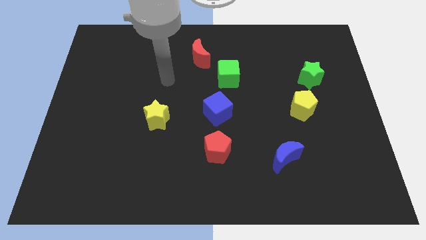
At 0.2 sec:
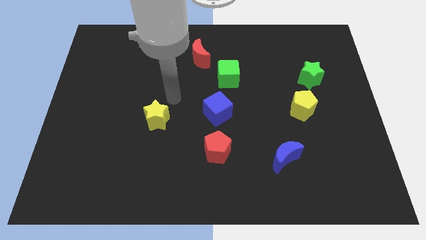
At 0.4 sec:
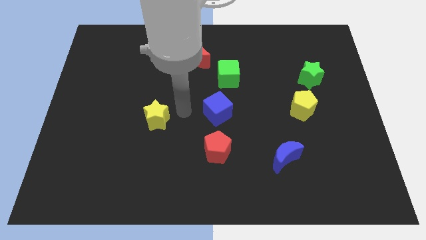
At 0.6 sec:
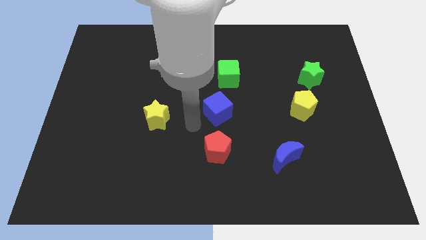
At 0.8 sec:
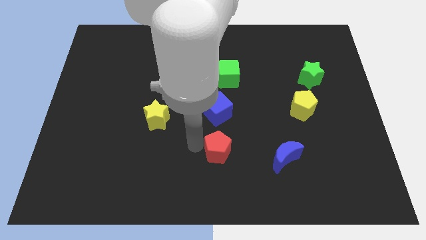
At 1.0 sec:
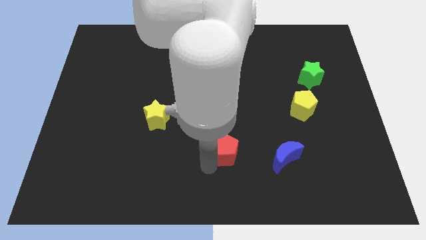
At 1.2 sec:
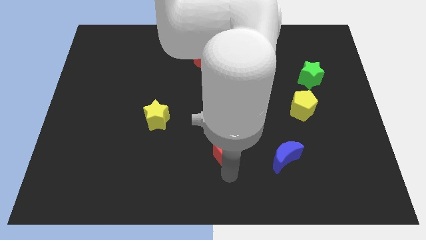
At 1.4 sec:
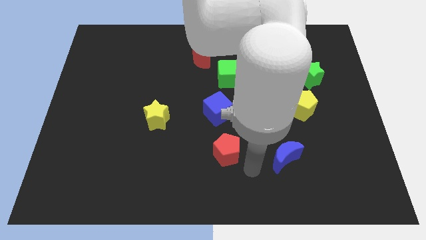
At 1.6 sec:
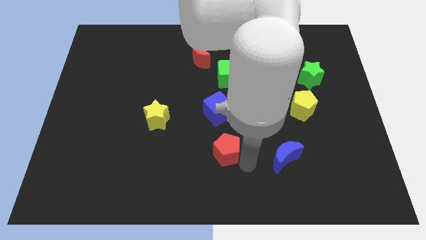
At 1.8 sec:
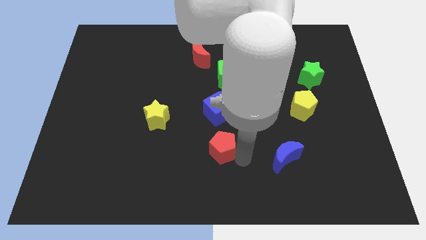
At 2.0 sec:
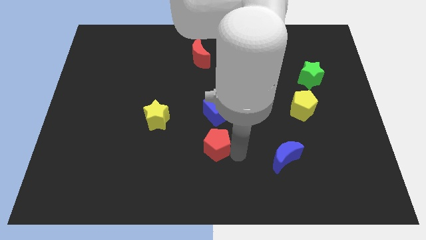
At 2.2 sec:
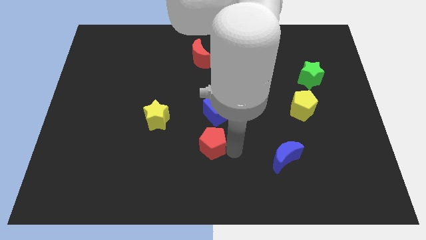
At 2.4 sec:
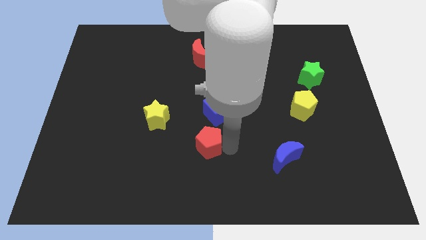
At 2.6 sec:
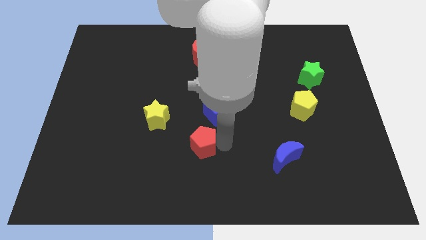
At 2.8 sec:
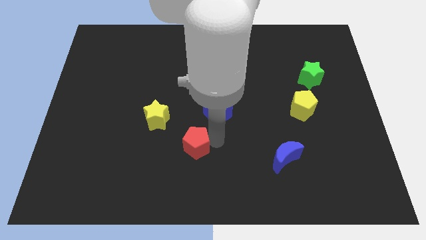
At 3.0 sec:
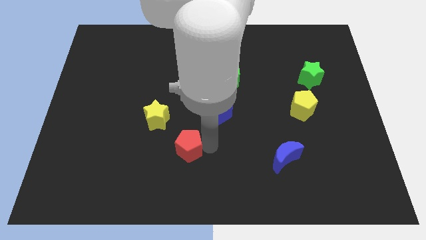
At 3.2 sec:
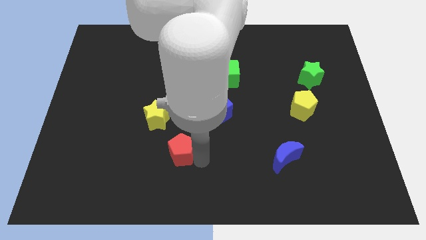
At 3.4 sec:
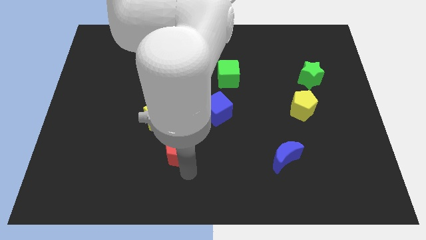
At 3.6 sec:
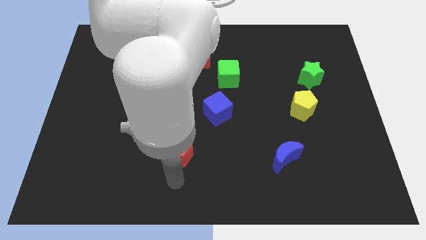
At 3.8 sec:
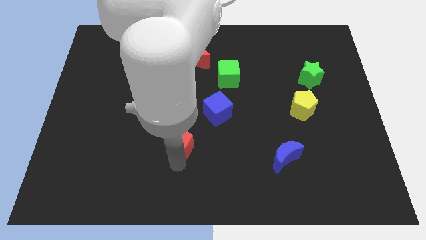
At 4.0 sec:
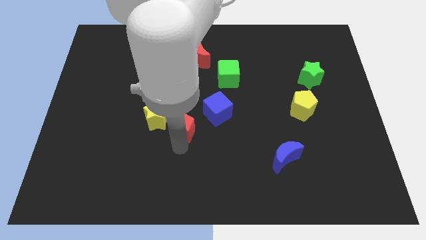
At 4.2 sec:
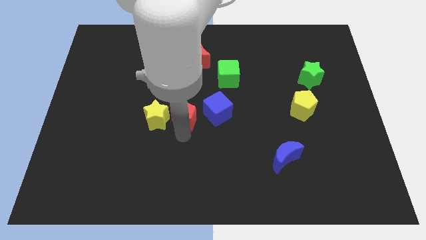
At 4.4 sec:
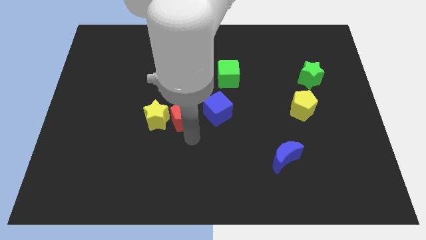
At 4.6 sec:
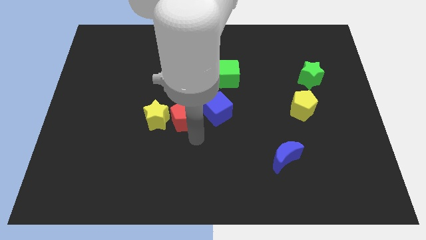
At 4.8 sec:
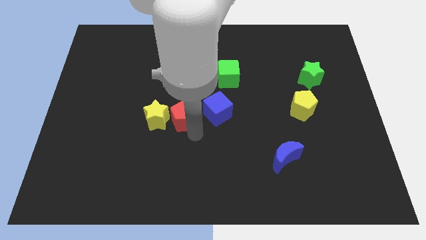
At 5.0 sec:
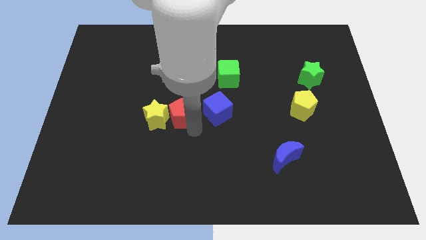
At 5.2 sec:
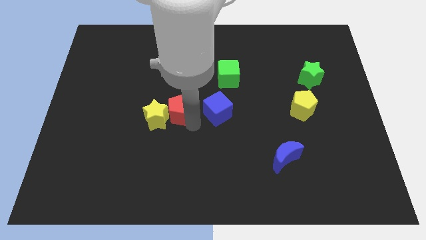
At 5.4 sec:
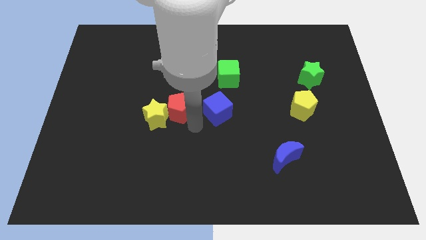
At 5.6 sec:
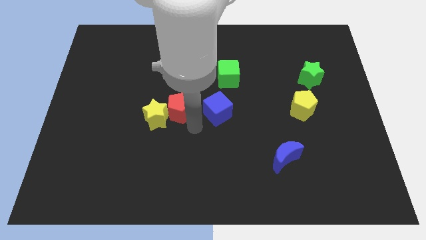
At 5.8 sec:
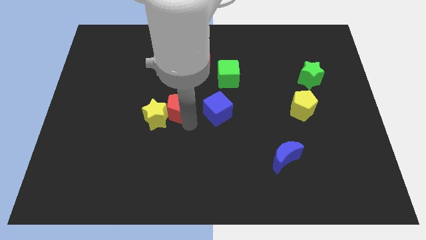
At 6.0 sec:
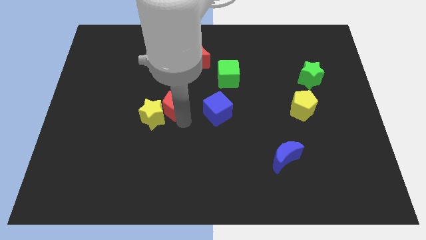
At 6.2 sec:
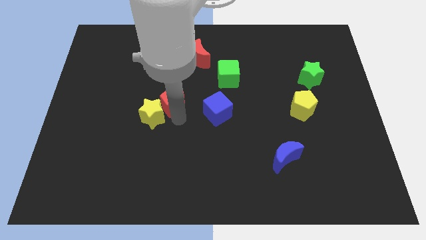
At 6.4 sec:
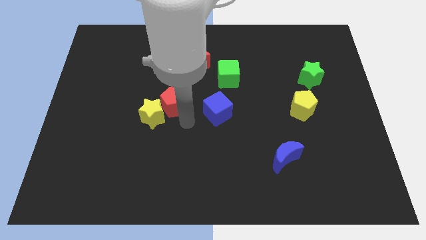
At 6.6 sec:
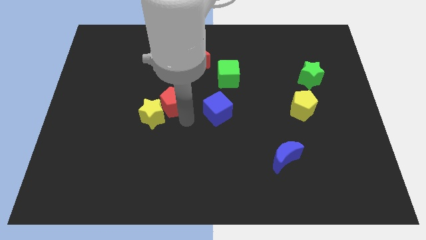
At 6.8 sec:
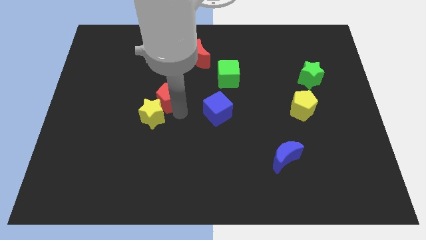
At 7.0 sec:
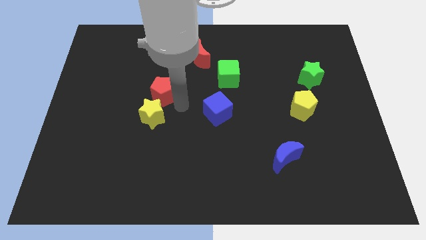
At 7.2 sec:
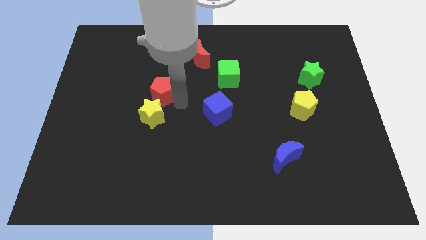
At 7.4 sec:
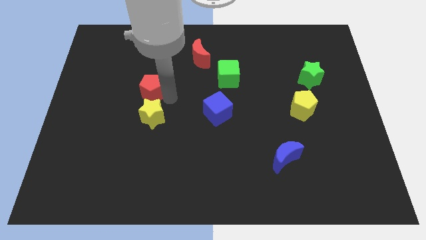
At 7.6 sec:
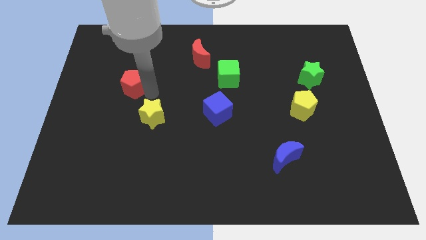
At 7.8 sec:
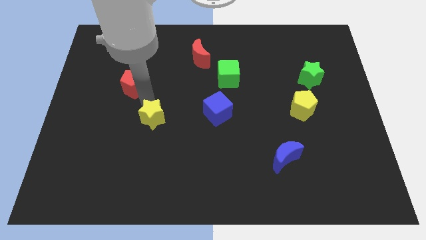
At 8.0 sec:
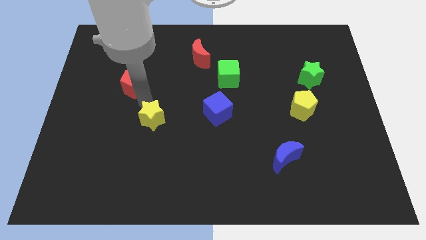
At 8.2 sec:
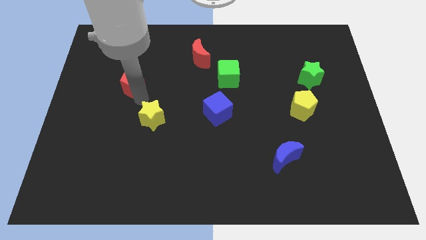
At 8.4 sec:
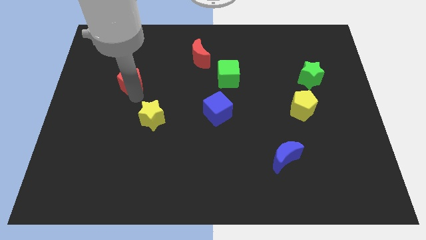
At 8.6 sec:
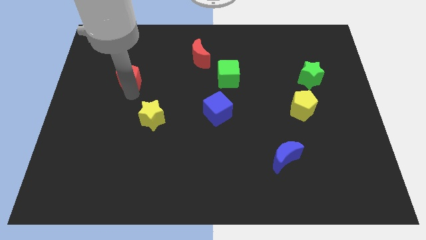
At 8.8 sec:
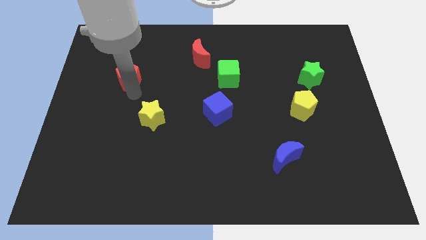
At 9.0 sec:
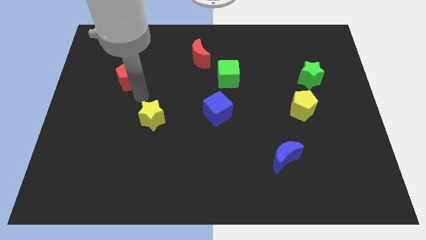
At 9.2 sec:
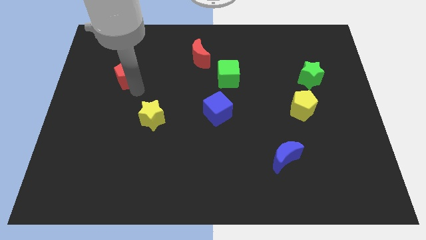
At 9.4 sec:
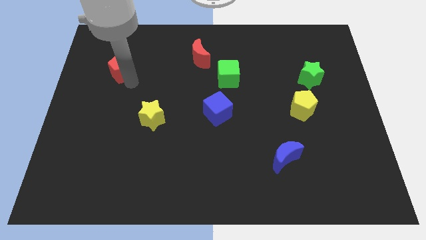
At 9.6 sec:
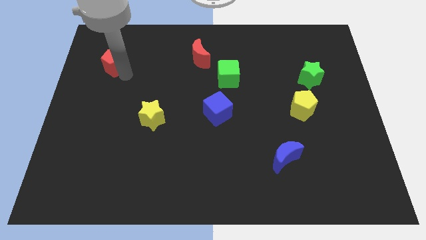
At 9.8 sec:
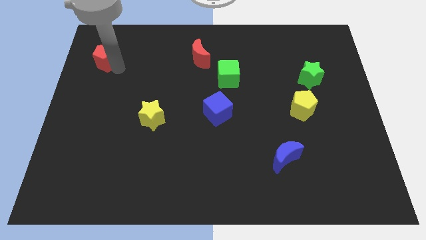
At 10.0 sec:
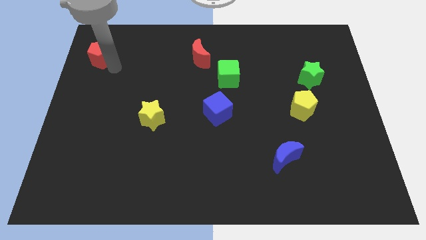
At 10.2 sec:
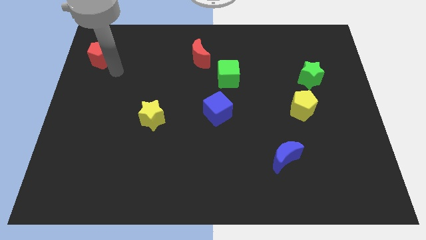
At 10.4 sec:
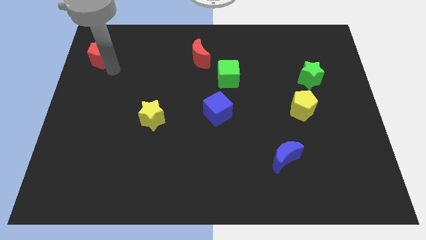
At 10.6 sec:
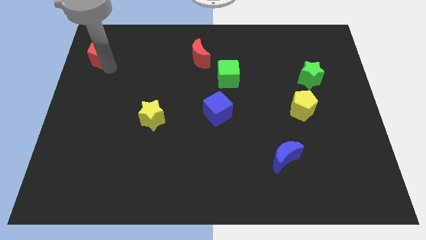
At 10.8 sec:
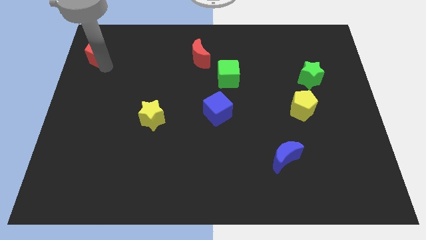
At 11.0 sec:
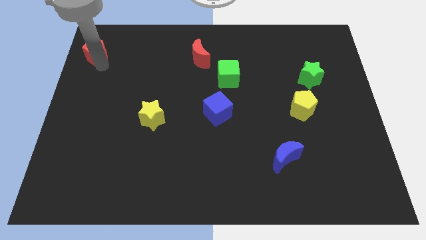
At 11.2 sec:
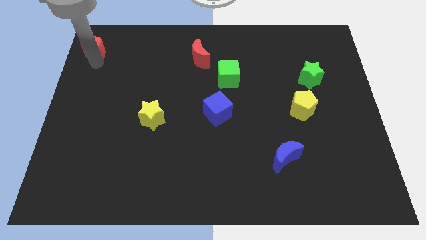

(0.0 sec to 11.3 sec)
put the red pentagon to the top left of the board

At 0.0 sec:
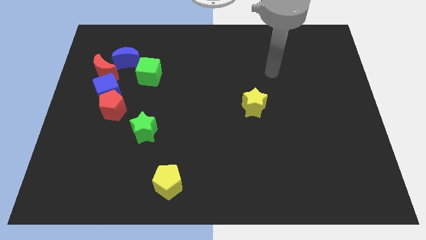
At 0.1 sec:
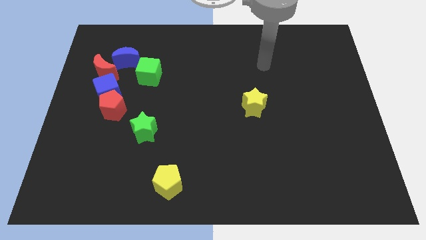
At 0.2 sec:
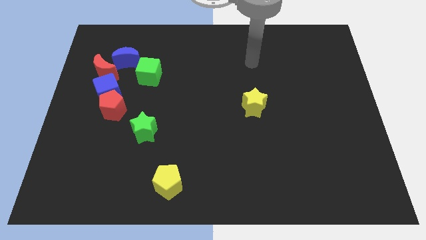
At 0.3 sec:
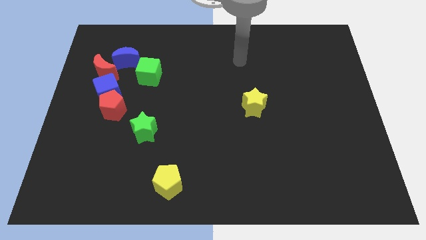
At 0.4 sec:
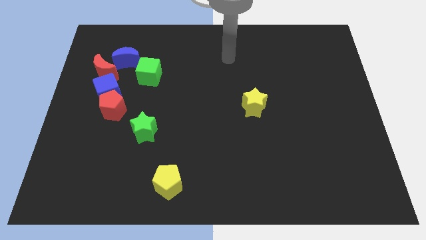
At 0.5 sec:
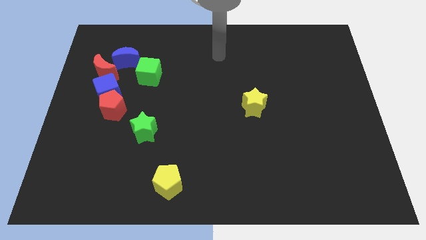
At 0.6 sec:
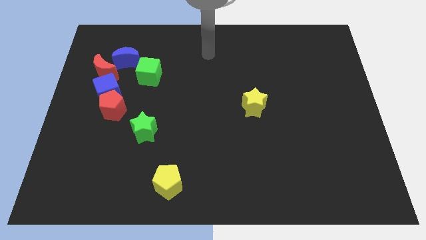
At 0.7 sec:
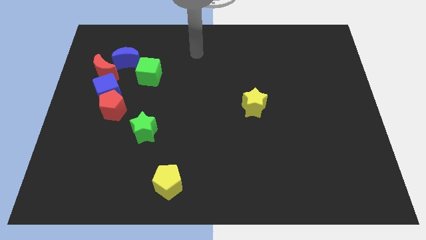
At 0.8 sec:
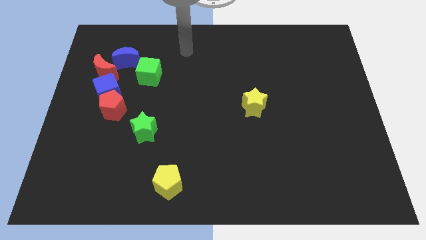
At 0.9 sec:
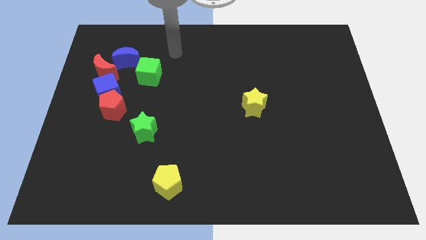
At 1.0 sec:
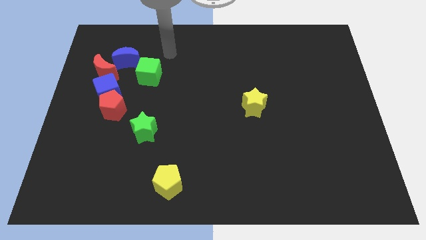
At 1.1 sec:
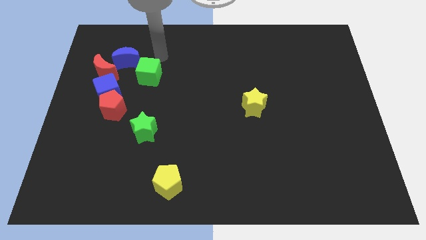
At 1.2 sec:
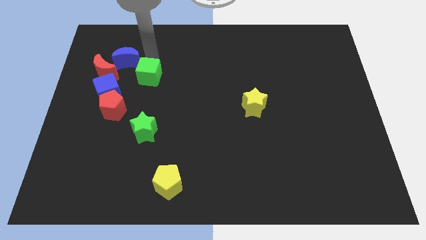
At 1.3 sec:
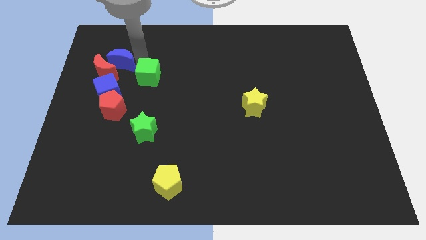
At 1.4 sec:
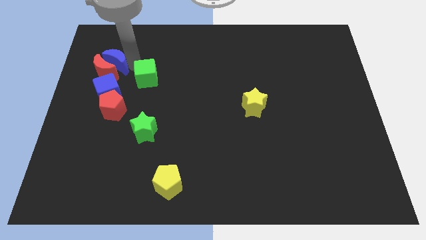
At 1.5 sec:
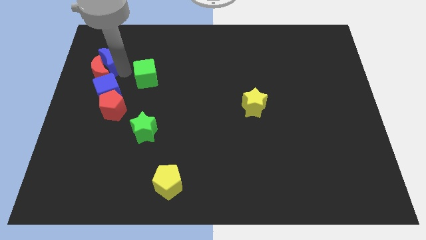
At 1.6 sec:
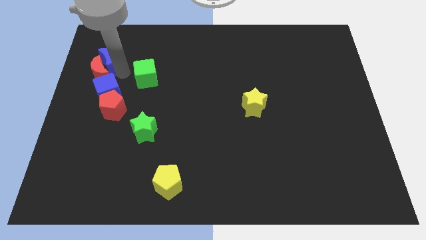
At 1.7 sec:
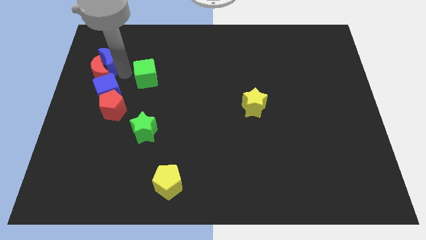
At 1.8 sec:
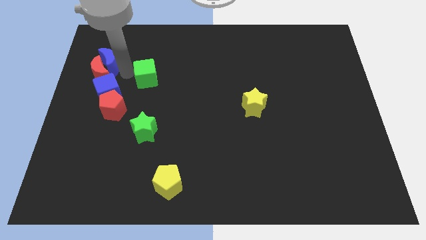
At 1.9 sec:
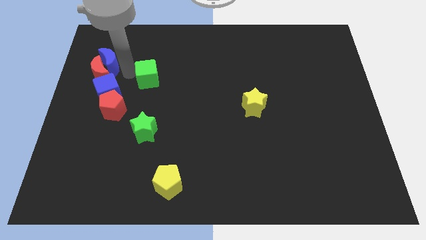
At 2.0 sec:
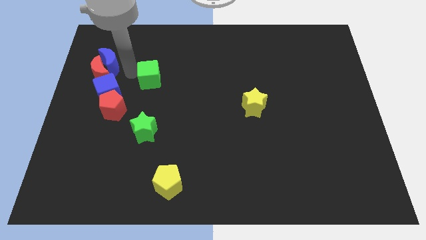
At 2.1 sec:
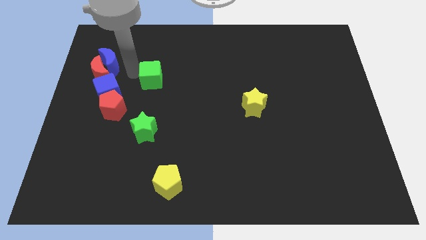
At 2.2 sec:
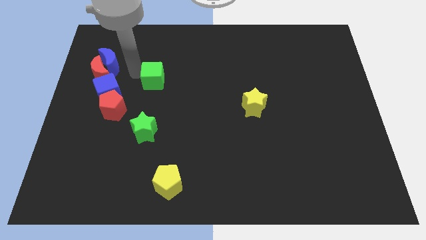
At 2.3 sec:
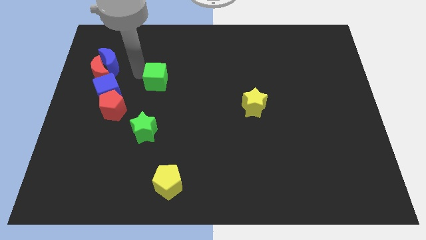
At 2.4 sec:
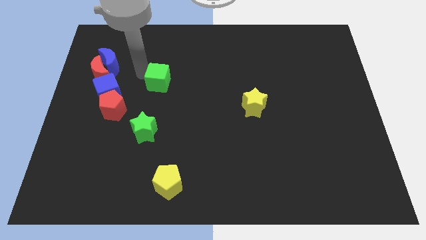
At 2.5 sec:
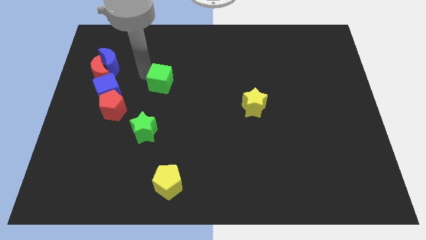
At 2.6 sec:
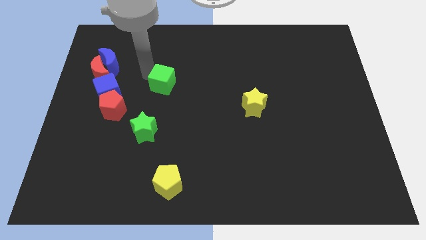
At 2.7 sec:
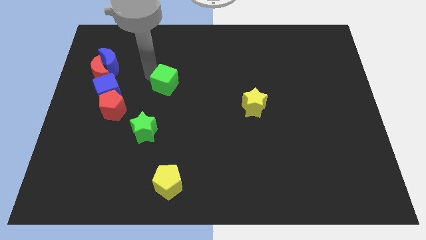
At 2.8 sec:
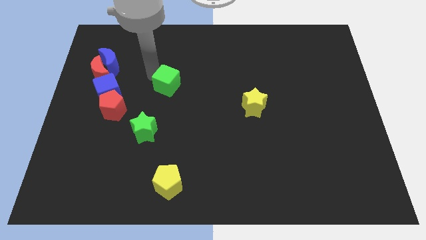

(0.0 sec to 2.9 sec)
move the green cube to the center of the board
